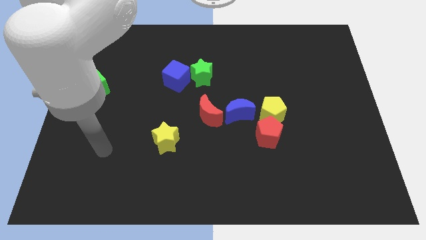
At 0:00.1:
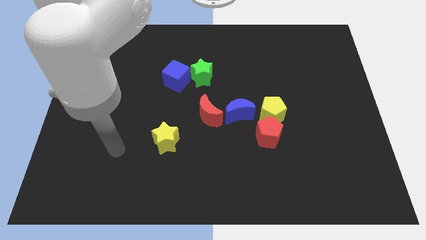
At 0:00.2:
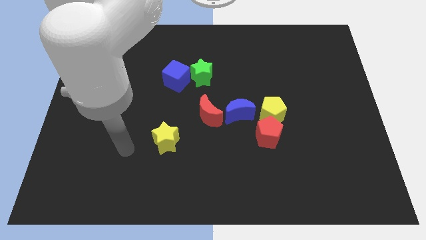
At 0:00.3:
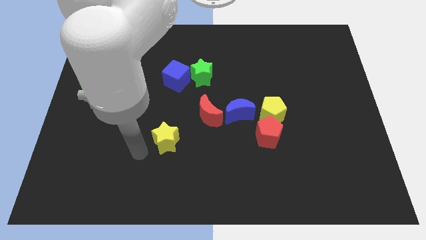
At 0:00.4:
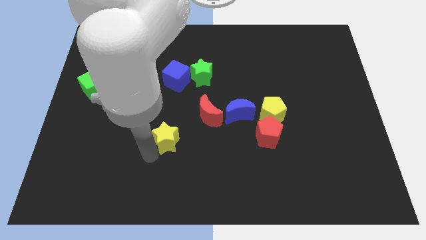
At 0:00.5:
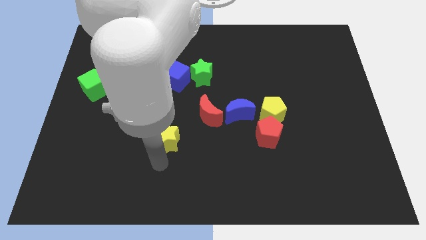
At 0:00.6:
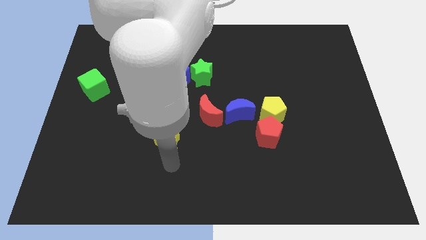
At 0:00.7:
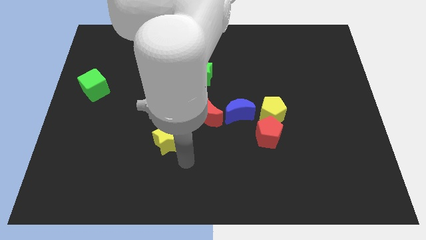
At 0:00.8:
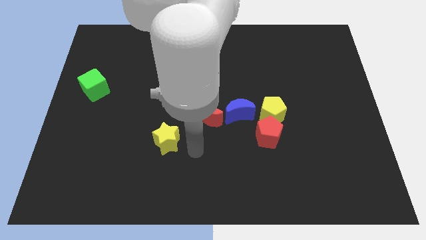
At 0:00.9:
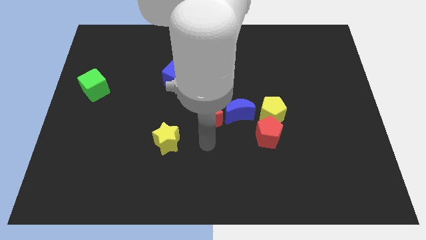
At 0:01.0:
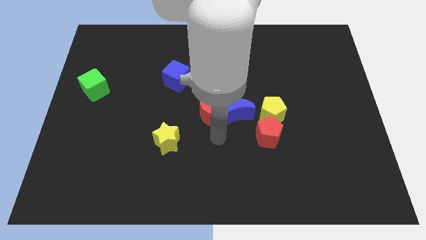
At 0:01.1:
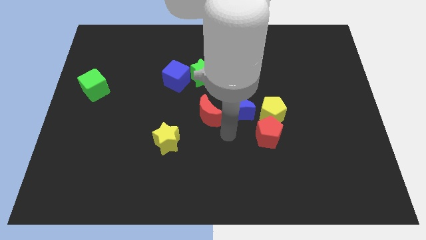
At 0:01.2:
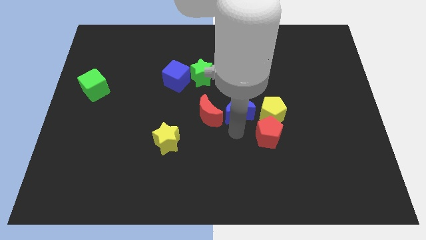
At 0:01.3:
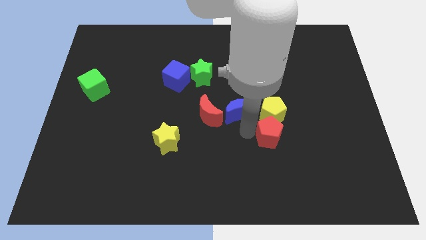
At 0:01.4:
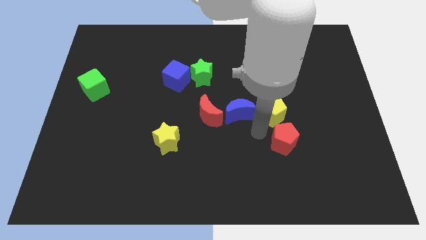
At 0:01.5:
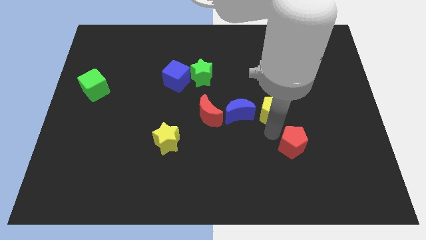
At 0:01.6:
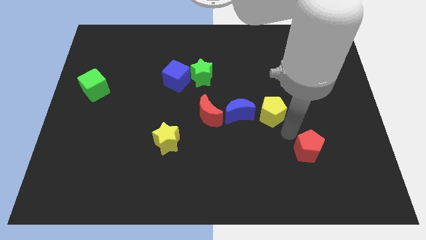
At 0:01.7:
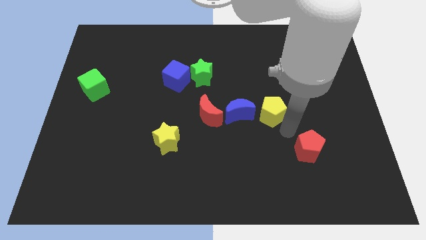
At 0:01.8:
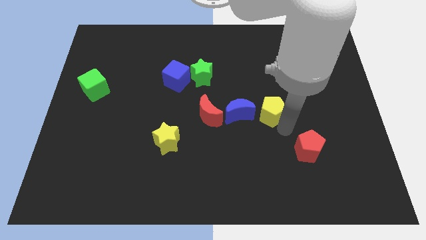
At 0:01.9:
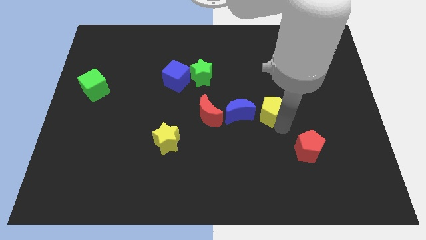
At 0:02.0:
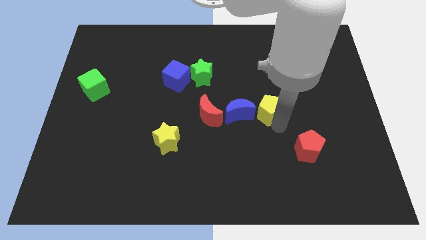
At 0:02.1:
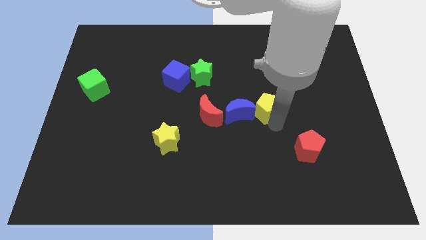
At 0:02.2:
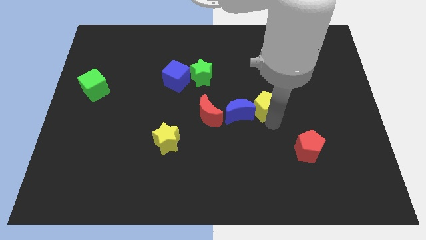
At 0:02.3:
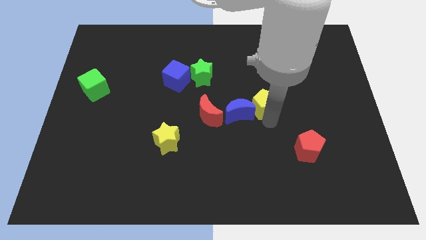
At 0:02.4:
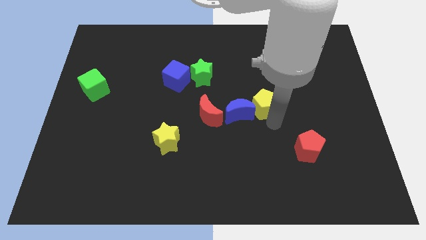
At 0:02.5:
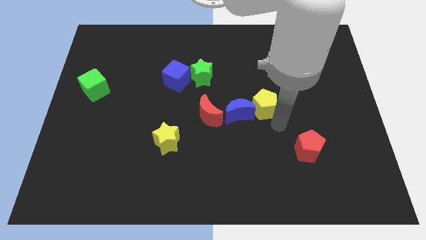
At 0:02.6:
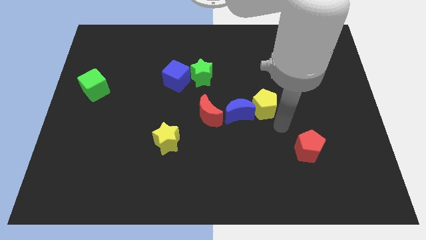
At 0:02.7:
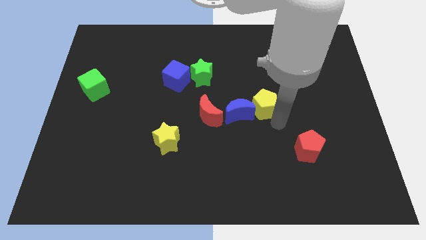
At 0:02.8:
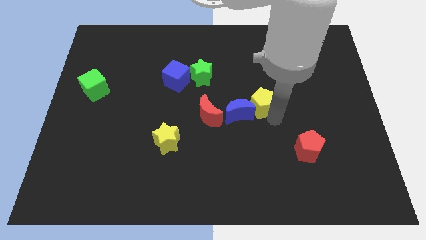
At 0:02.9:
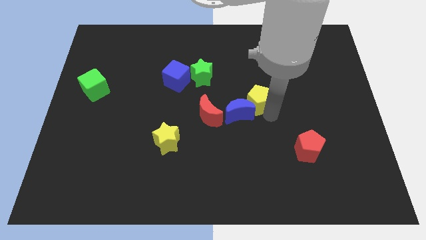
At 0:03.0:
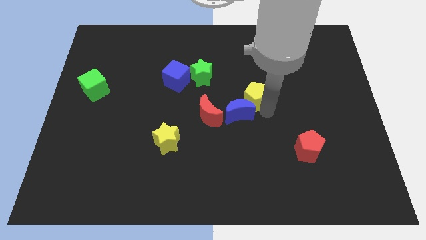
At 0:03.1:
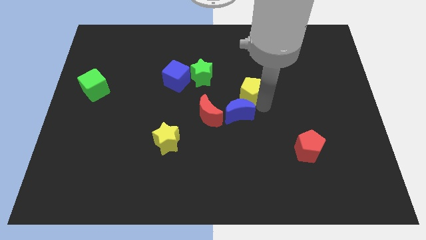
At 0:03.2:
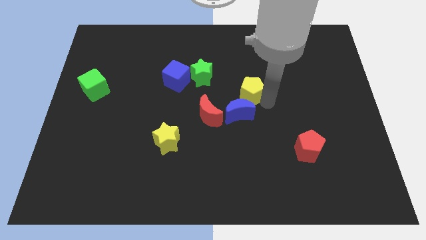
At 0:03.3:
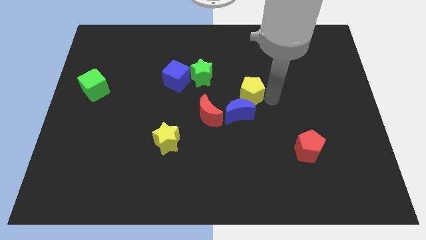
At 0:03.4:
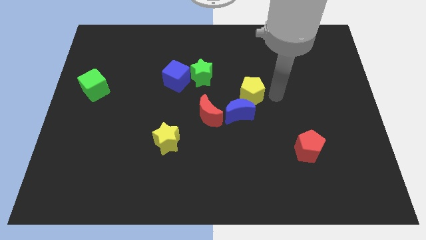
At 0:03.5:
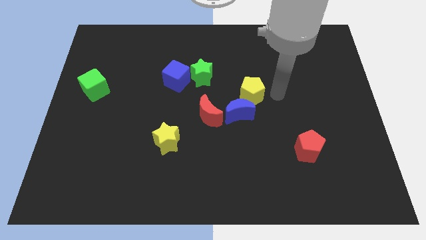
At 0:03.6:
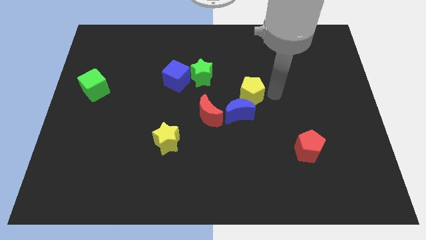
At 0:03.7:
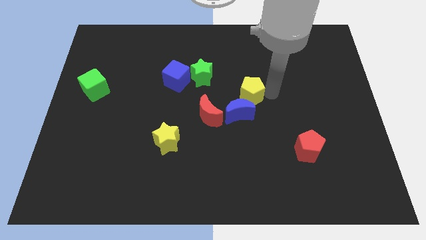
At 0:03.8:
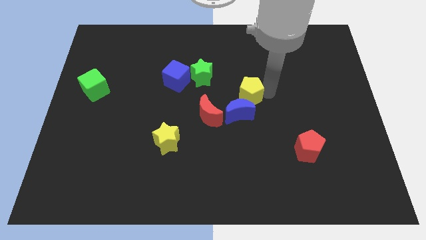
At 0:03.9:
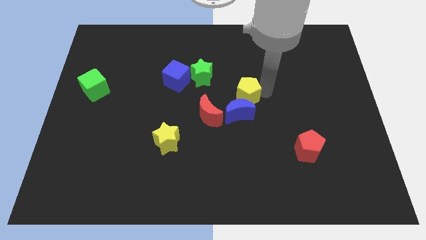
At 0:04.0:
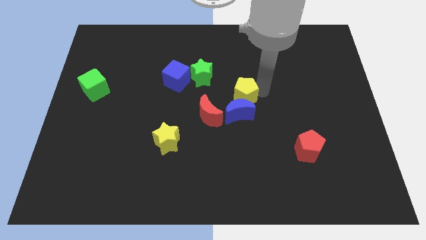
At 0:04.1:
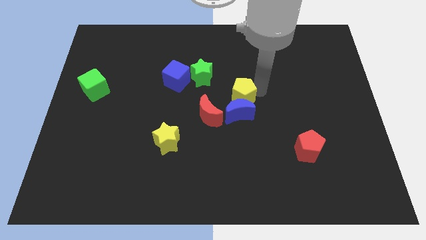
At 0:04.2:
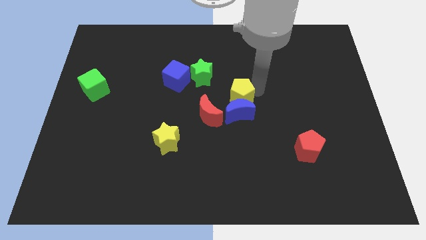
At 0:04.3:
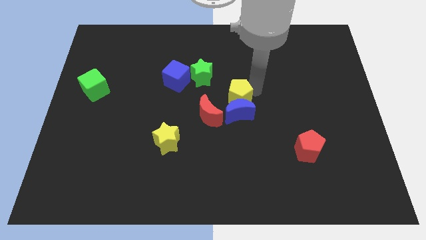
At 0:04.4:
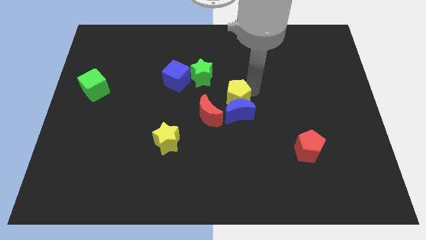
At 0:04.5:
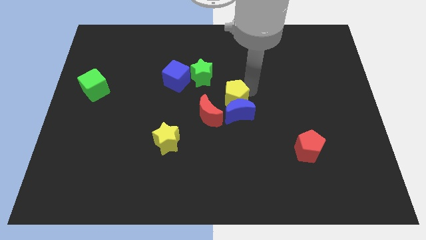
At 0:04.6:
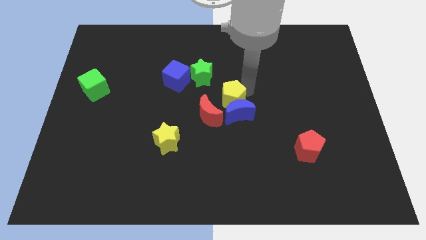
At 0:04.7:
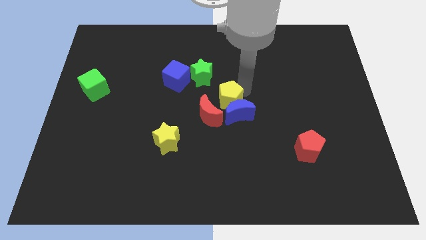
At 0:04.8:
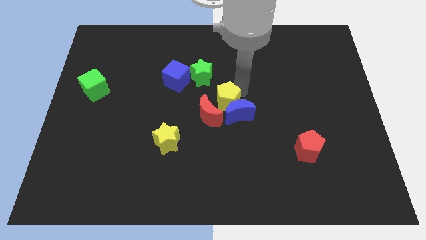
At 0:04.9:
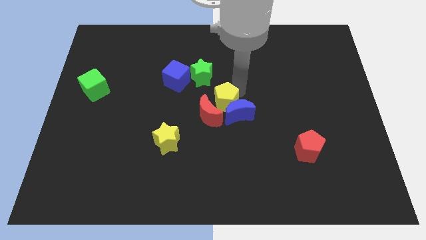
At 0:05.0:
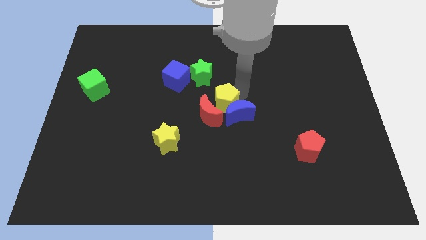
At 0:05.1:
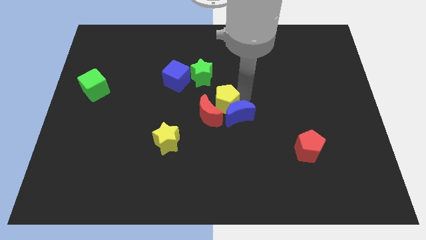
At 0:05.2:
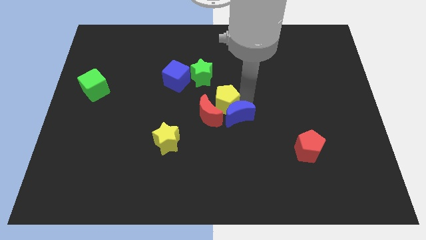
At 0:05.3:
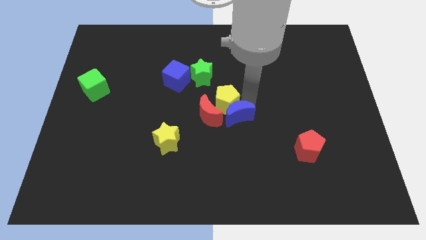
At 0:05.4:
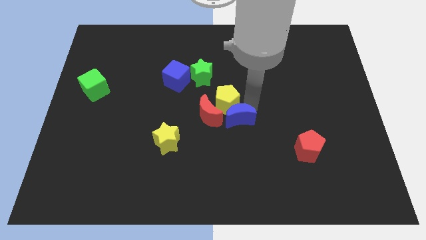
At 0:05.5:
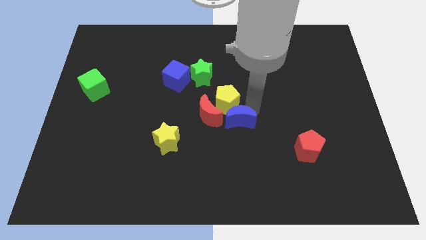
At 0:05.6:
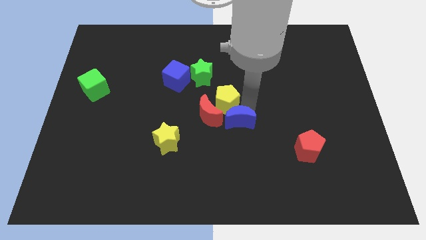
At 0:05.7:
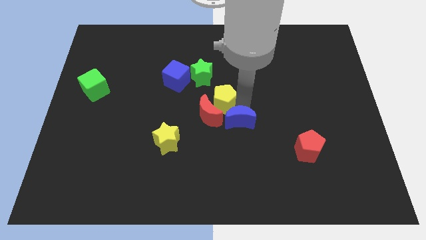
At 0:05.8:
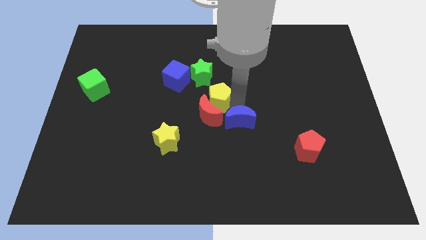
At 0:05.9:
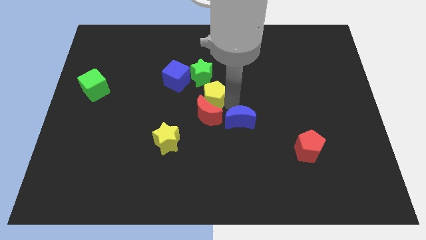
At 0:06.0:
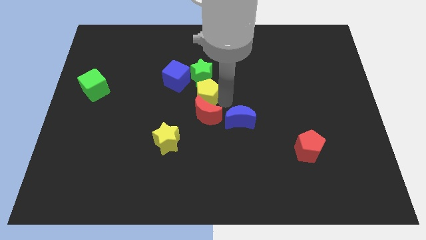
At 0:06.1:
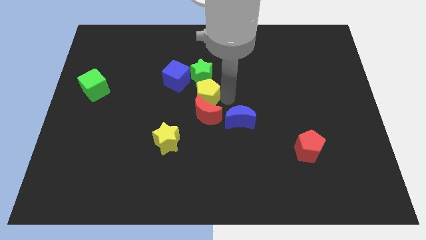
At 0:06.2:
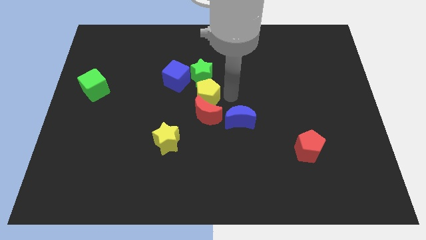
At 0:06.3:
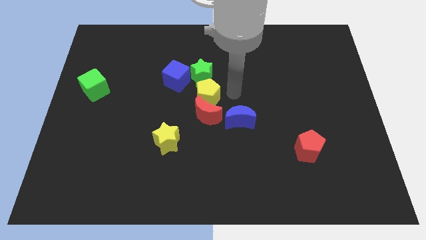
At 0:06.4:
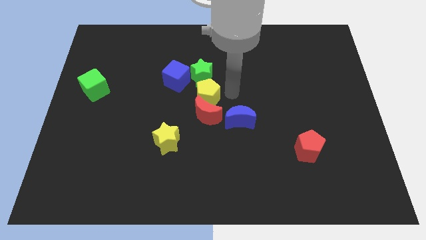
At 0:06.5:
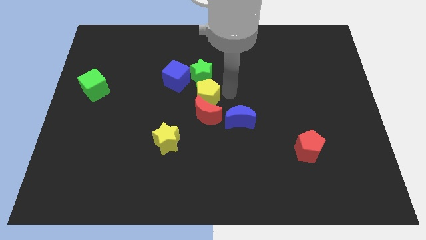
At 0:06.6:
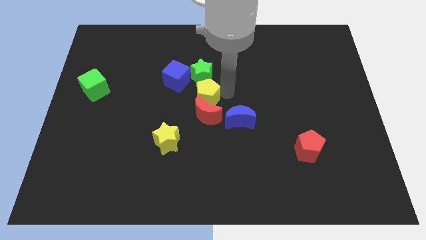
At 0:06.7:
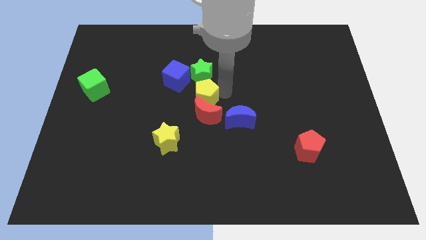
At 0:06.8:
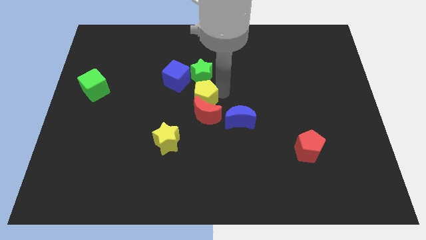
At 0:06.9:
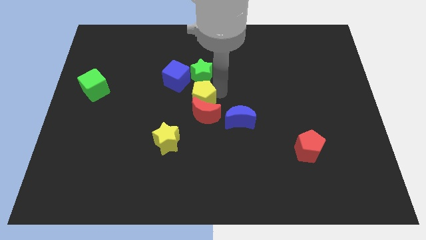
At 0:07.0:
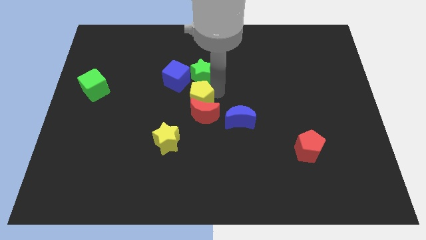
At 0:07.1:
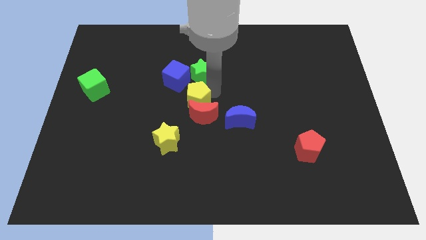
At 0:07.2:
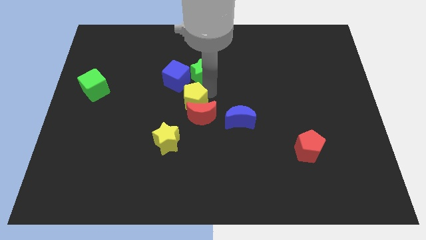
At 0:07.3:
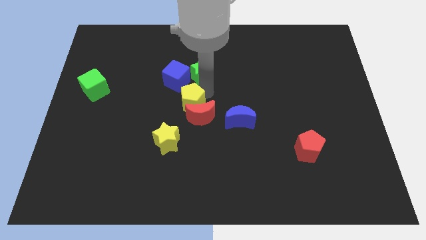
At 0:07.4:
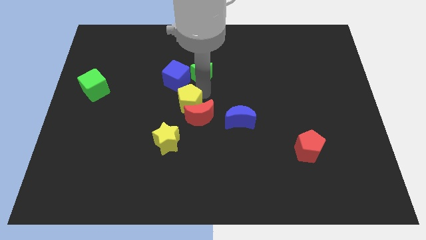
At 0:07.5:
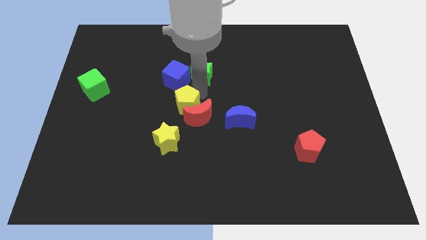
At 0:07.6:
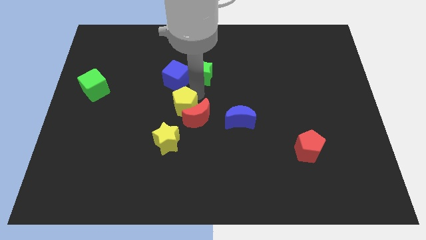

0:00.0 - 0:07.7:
slide the yellow pentagon to the left

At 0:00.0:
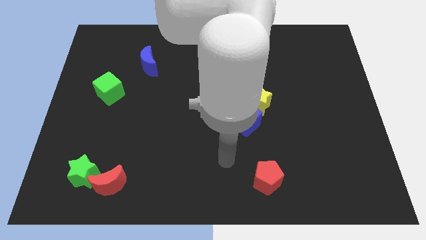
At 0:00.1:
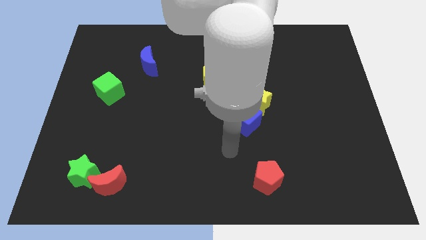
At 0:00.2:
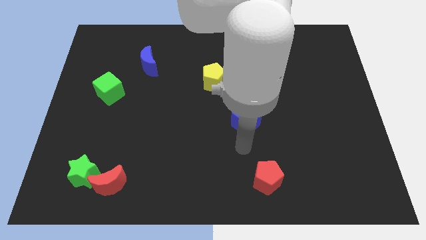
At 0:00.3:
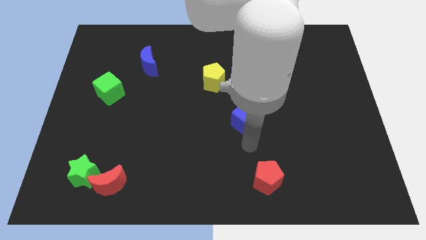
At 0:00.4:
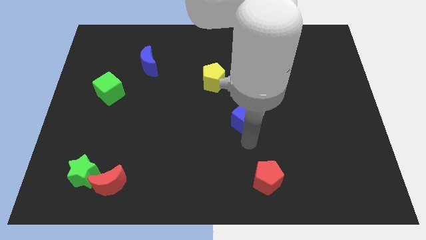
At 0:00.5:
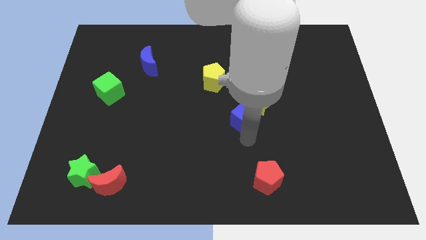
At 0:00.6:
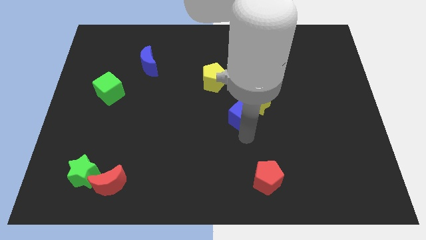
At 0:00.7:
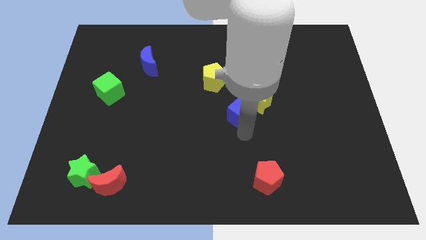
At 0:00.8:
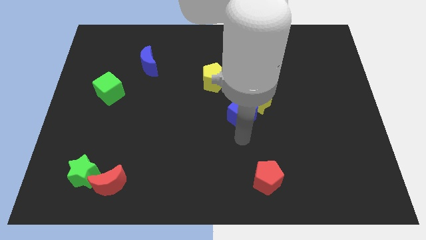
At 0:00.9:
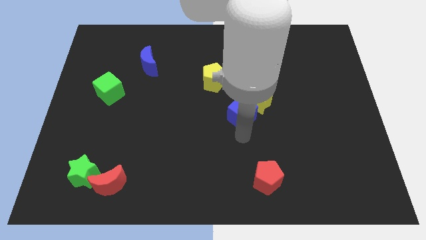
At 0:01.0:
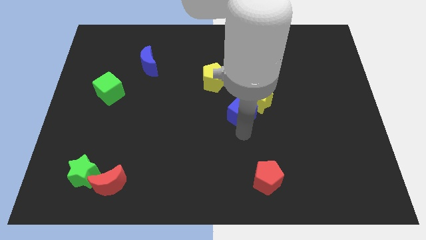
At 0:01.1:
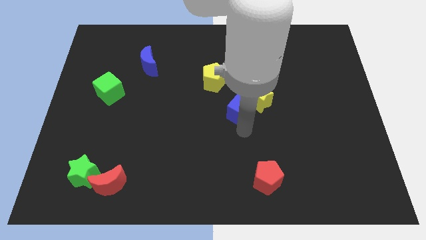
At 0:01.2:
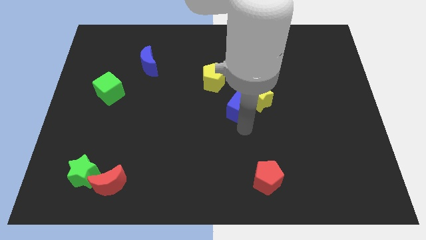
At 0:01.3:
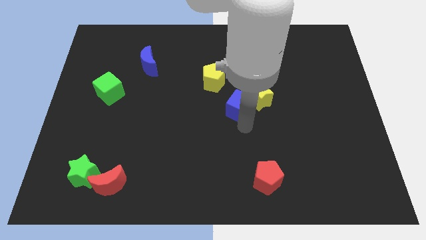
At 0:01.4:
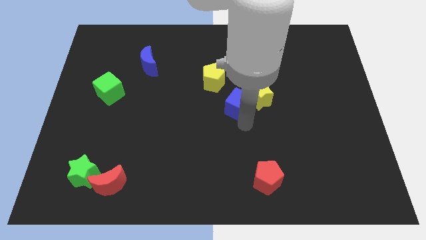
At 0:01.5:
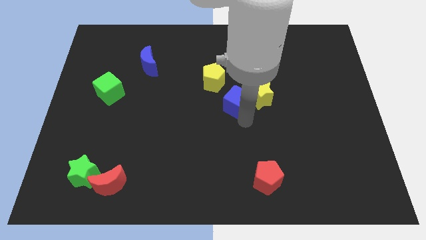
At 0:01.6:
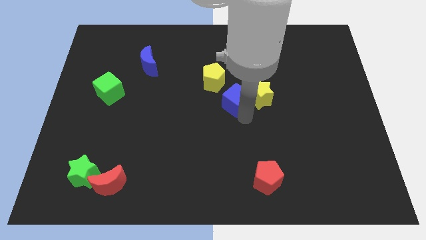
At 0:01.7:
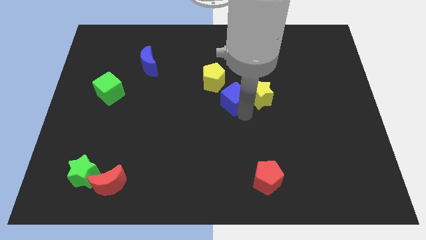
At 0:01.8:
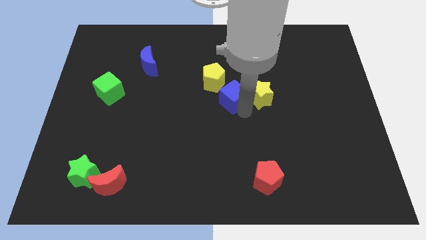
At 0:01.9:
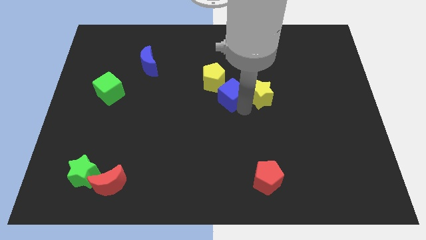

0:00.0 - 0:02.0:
slightly slide the blue cube upwards
